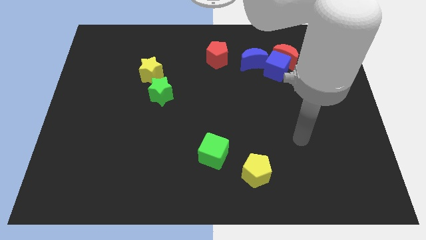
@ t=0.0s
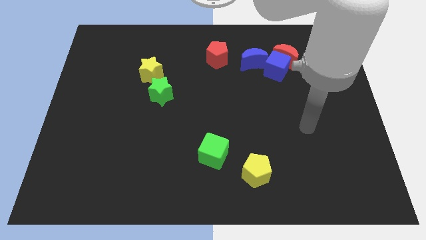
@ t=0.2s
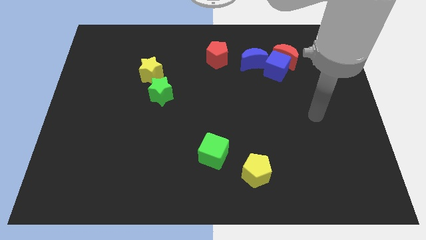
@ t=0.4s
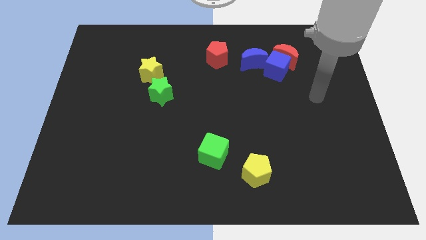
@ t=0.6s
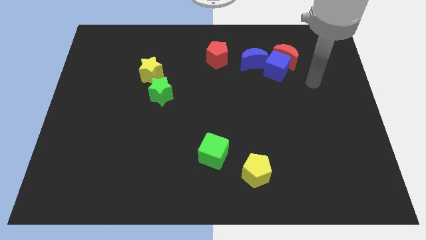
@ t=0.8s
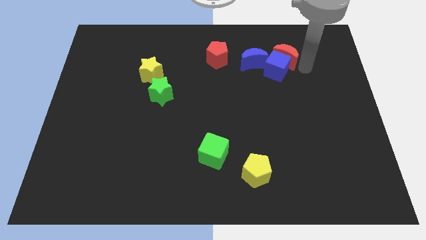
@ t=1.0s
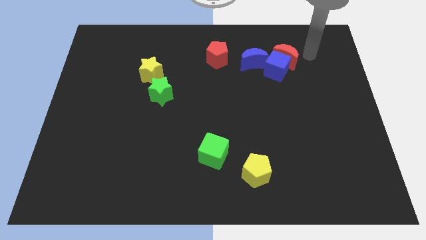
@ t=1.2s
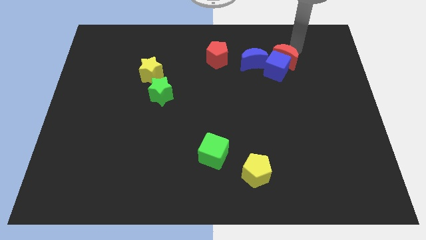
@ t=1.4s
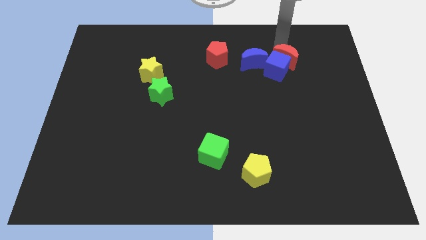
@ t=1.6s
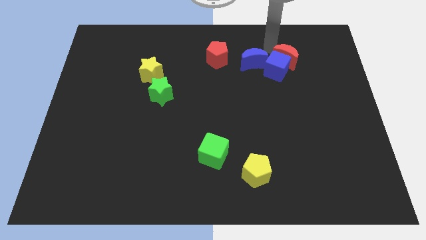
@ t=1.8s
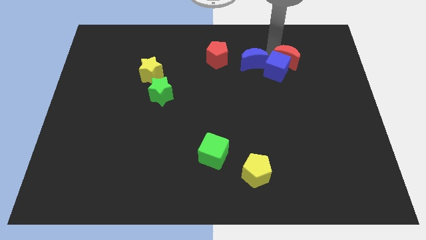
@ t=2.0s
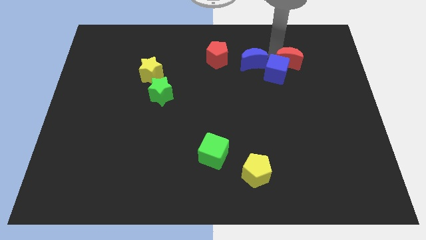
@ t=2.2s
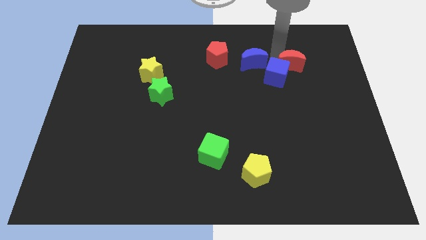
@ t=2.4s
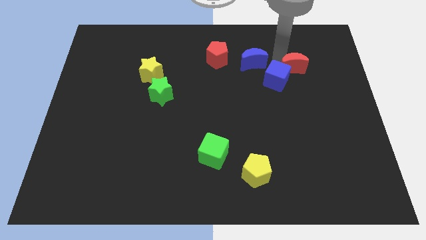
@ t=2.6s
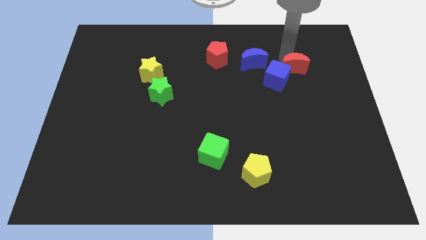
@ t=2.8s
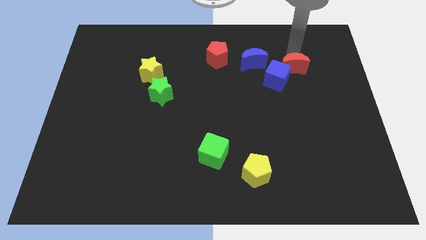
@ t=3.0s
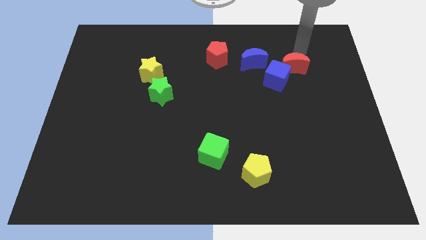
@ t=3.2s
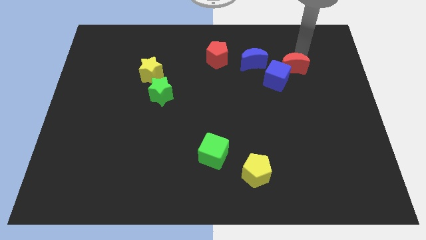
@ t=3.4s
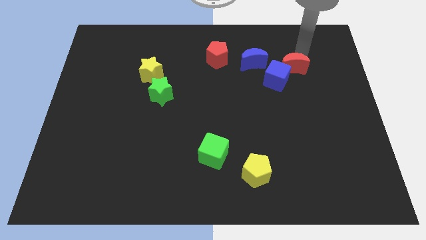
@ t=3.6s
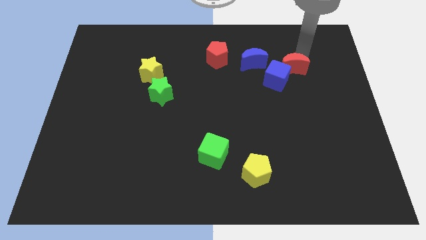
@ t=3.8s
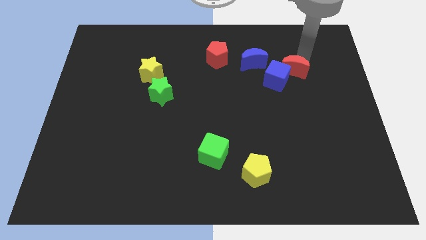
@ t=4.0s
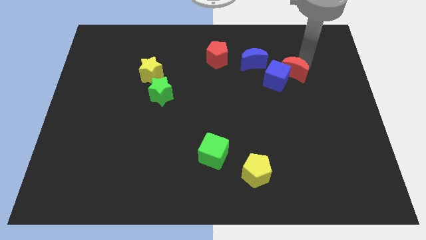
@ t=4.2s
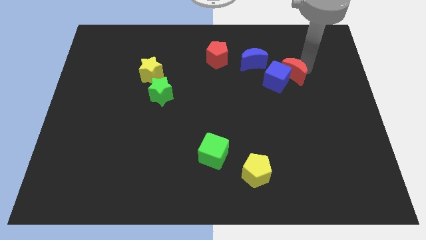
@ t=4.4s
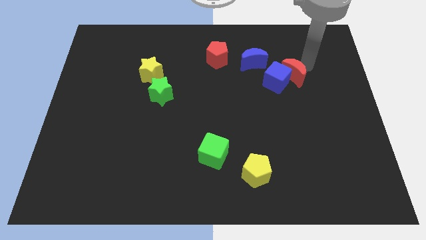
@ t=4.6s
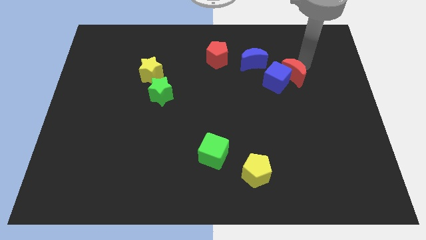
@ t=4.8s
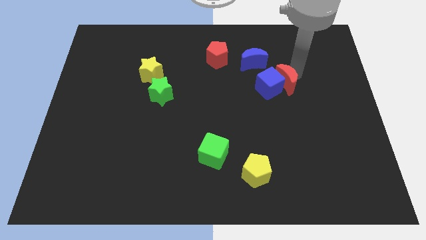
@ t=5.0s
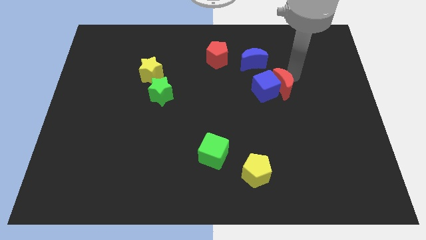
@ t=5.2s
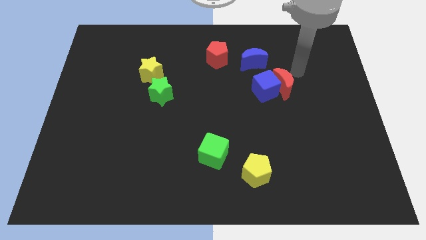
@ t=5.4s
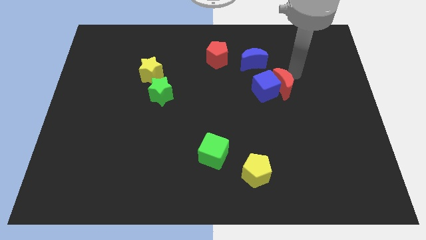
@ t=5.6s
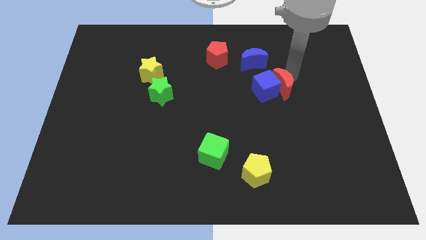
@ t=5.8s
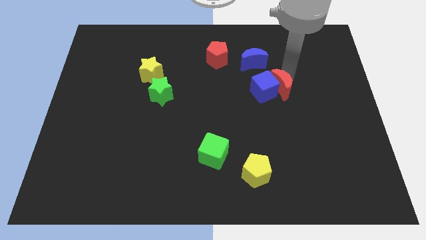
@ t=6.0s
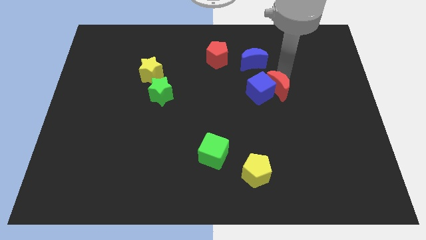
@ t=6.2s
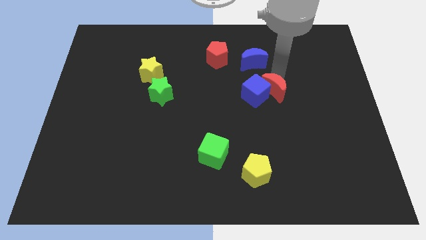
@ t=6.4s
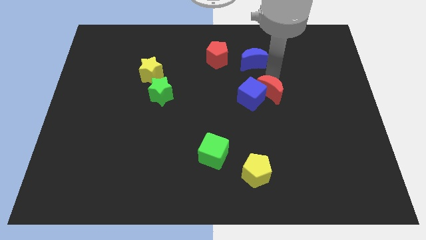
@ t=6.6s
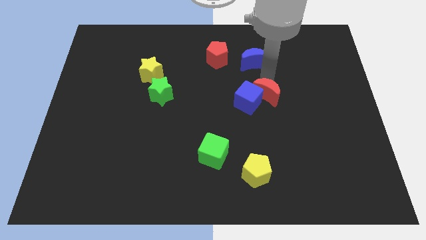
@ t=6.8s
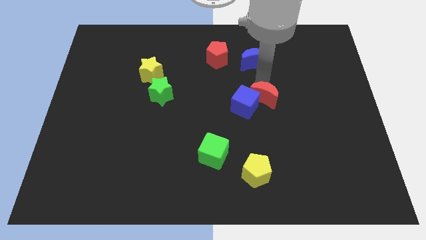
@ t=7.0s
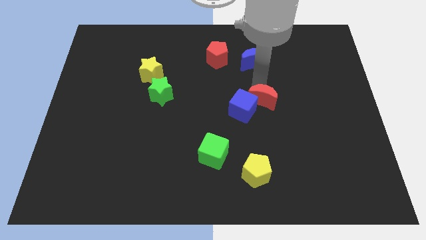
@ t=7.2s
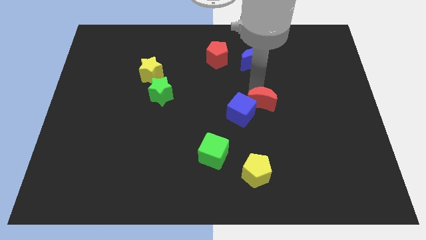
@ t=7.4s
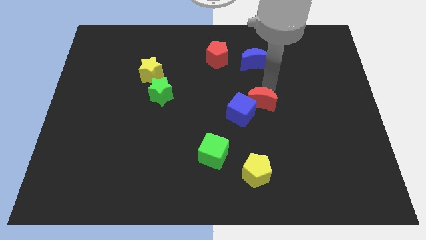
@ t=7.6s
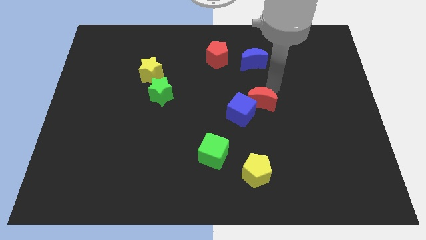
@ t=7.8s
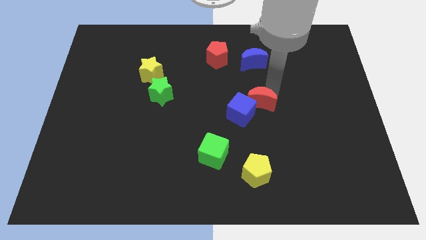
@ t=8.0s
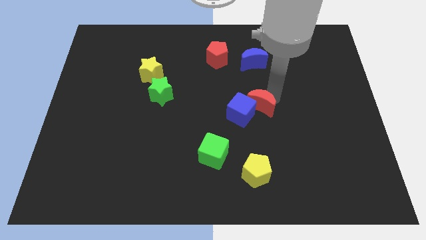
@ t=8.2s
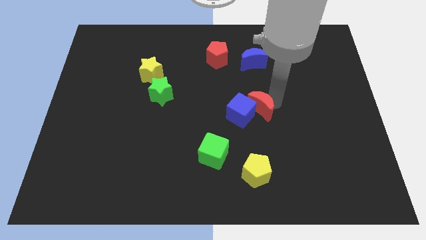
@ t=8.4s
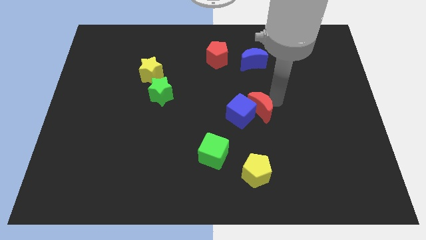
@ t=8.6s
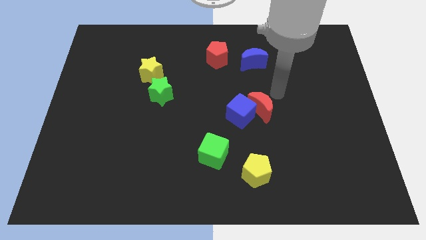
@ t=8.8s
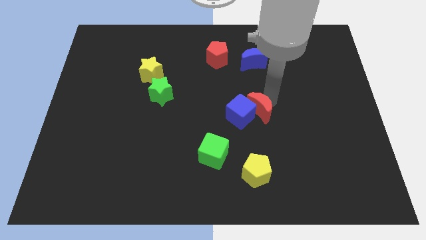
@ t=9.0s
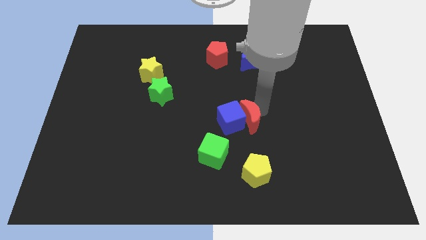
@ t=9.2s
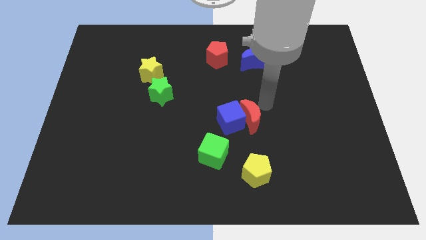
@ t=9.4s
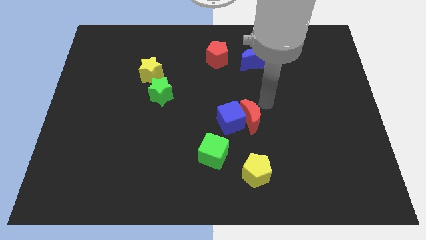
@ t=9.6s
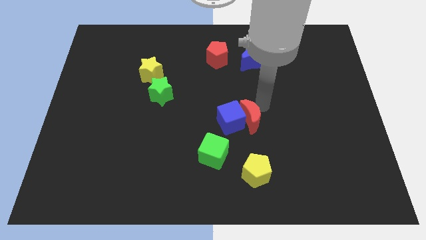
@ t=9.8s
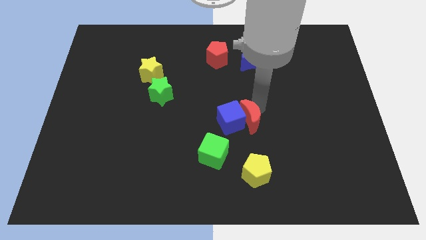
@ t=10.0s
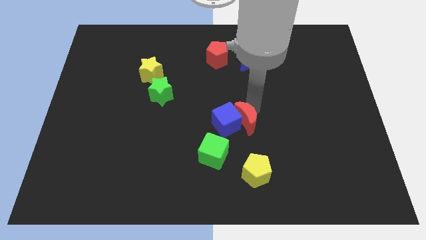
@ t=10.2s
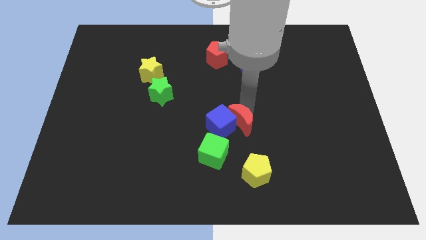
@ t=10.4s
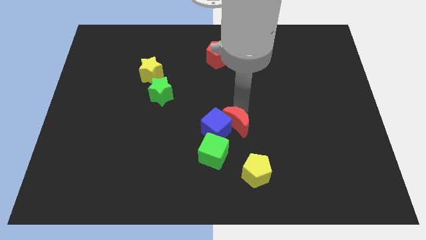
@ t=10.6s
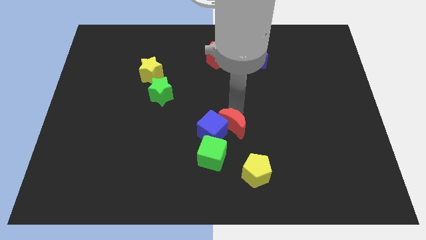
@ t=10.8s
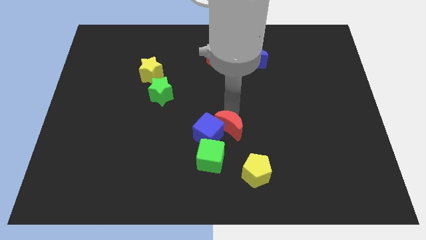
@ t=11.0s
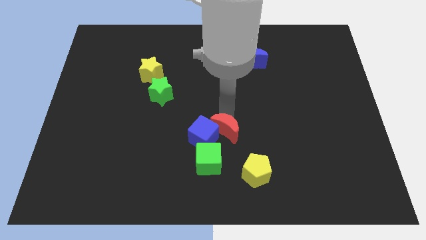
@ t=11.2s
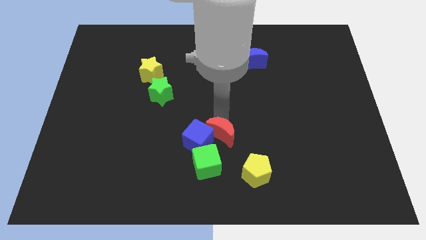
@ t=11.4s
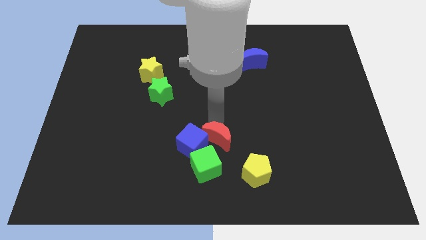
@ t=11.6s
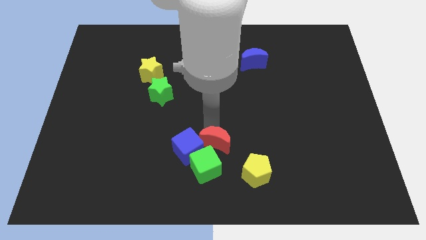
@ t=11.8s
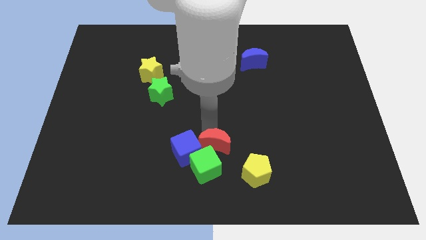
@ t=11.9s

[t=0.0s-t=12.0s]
push the red moon towards the green cube
